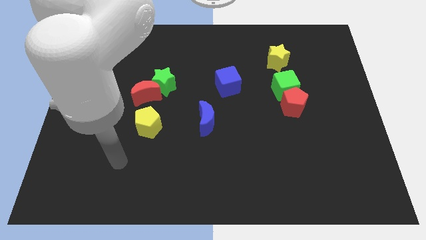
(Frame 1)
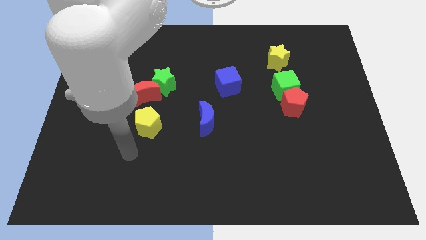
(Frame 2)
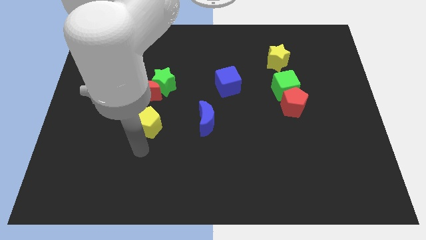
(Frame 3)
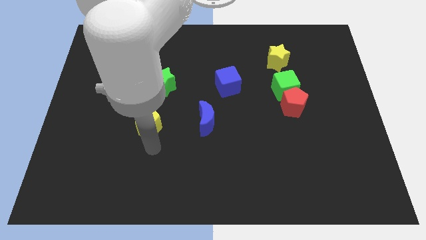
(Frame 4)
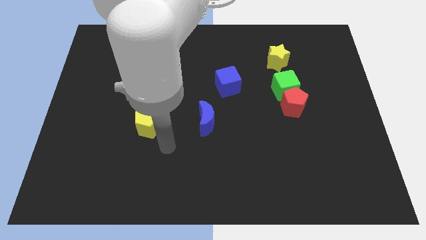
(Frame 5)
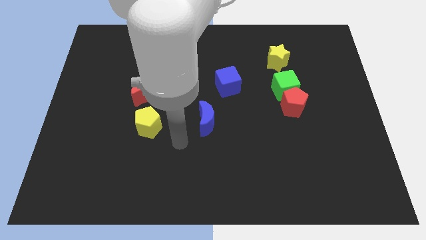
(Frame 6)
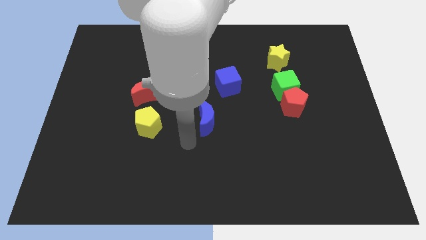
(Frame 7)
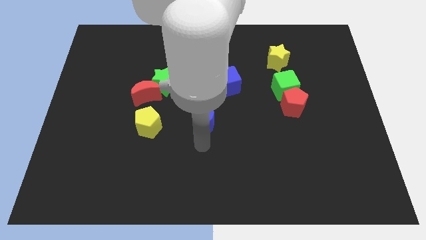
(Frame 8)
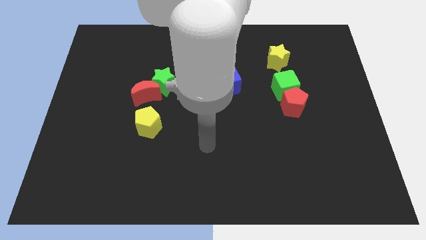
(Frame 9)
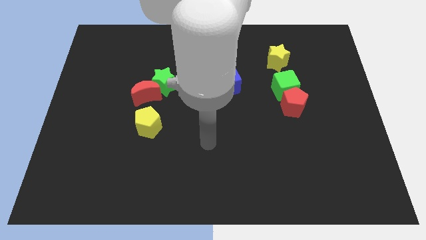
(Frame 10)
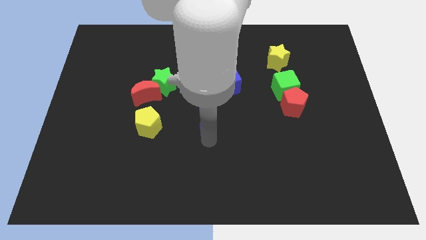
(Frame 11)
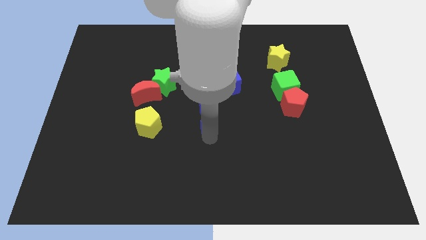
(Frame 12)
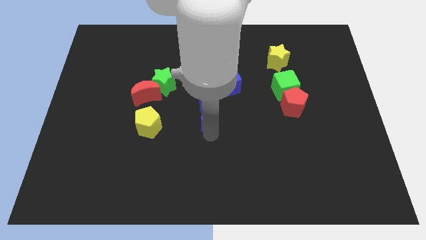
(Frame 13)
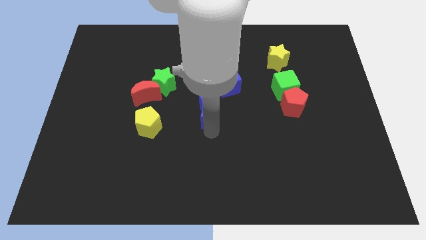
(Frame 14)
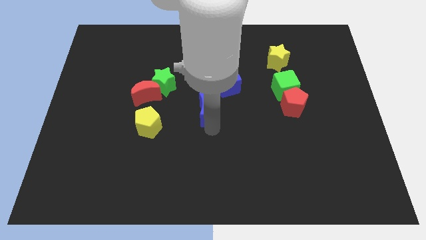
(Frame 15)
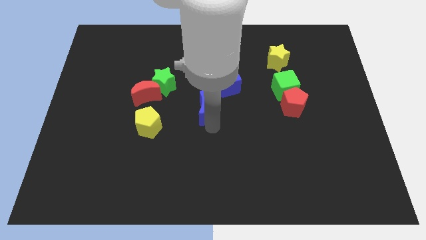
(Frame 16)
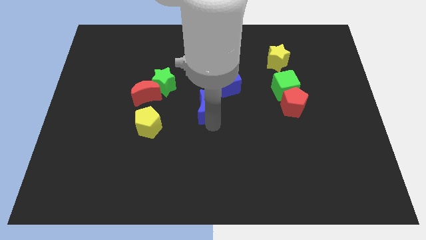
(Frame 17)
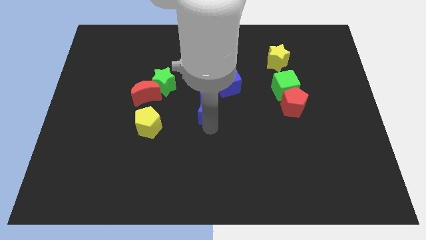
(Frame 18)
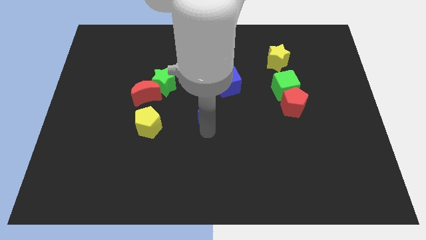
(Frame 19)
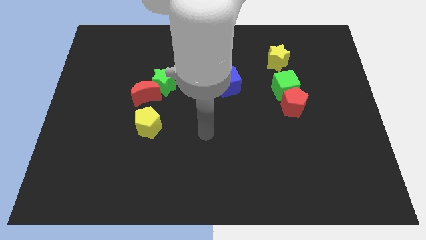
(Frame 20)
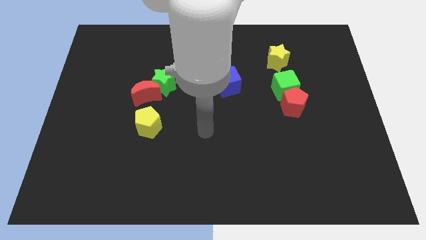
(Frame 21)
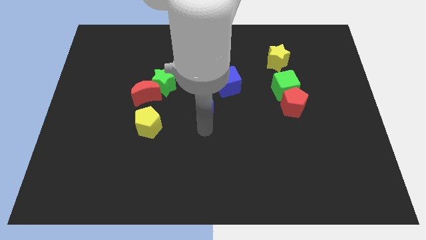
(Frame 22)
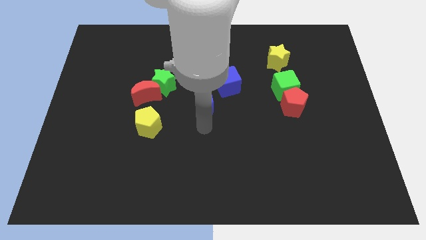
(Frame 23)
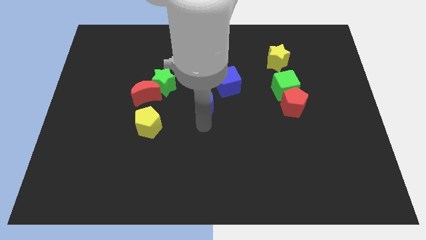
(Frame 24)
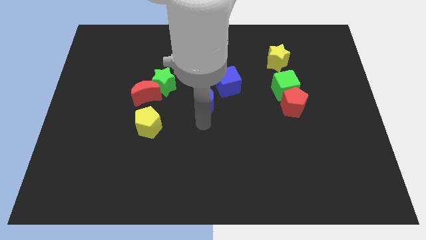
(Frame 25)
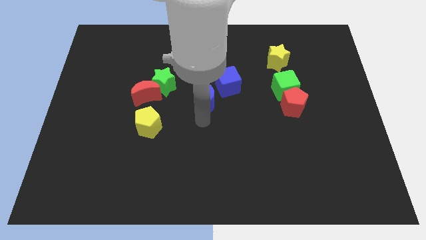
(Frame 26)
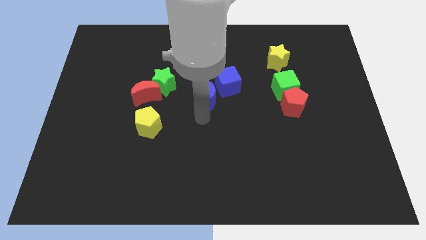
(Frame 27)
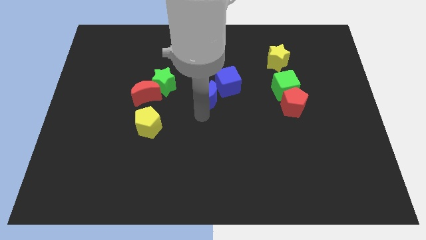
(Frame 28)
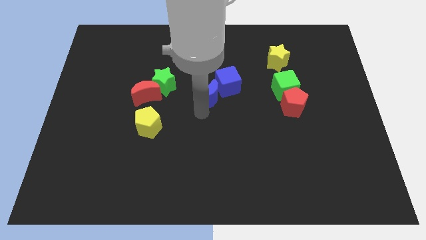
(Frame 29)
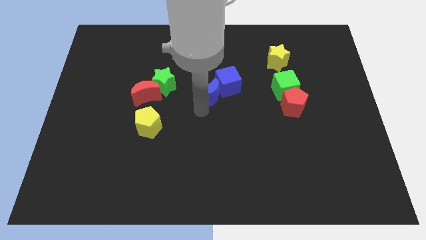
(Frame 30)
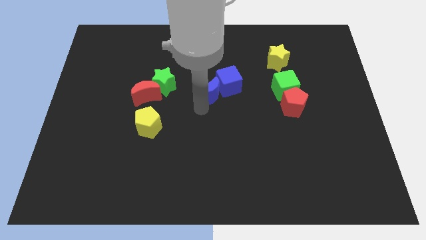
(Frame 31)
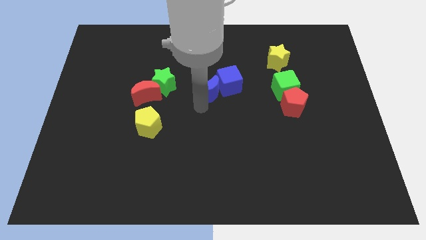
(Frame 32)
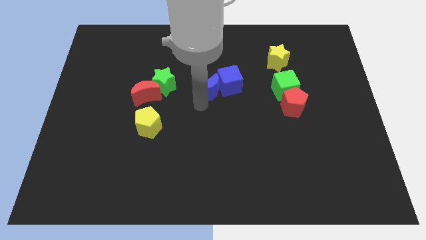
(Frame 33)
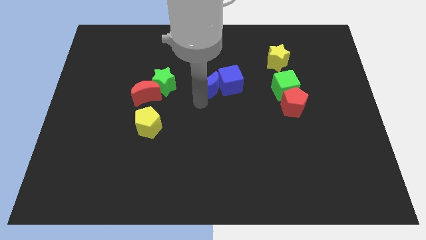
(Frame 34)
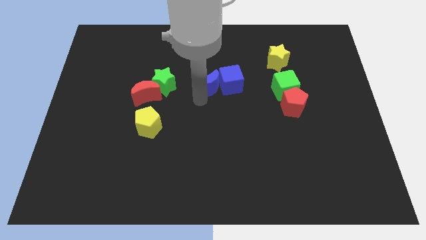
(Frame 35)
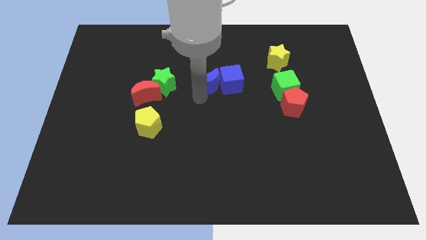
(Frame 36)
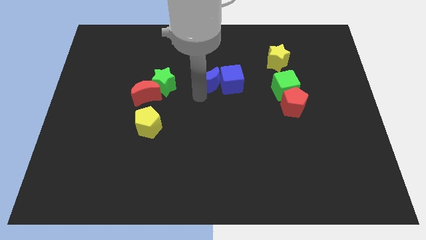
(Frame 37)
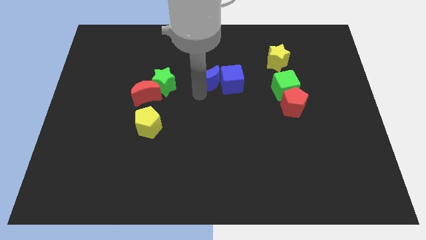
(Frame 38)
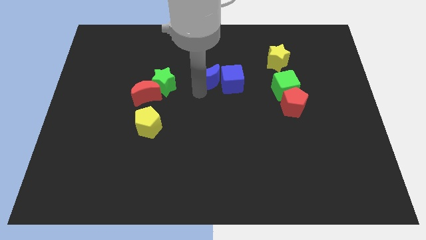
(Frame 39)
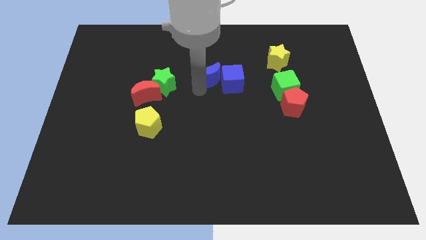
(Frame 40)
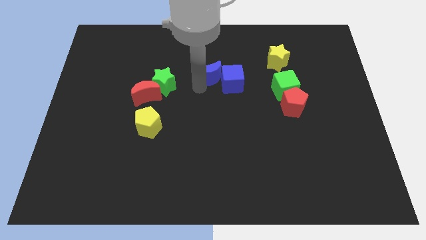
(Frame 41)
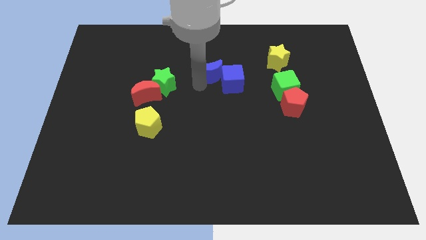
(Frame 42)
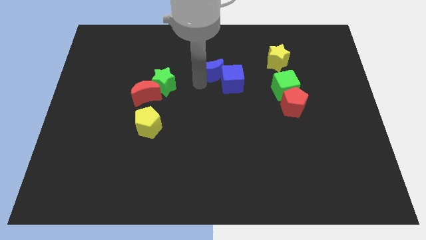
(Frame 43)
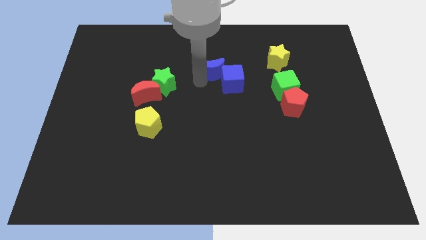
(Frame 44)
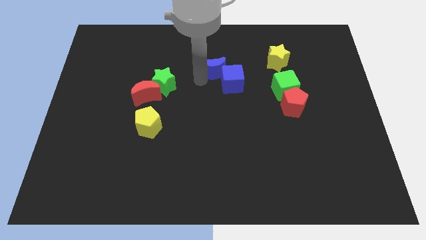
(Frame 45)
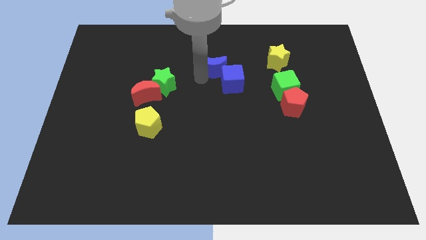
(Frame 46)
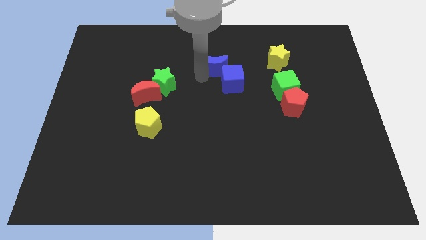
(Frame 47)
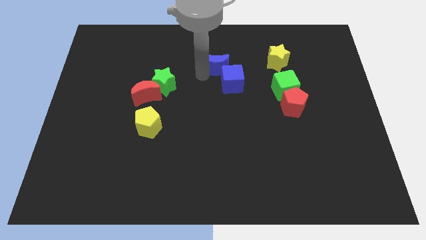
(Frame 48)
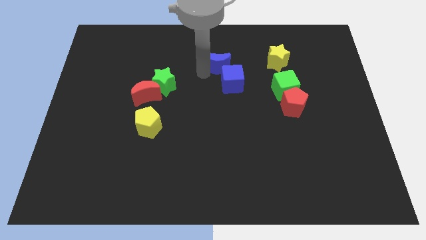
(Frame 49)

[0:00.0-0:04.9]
put the blue moon left of the yellow star

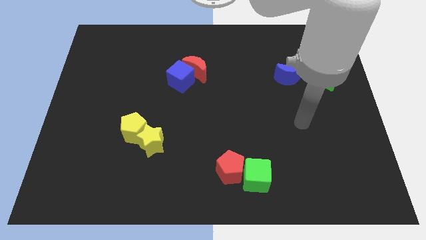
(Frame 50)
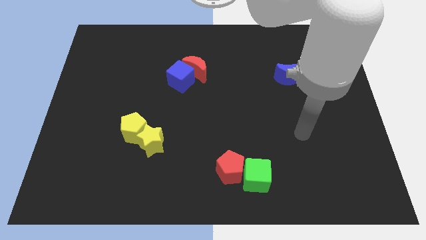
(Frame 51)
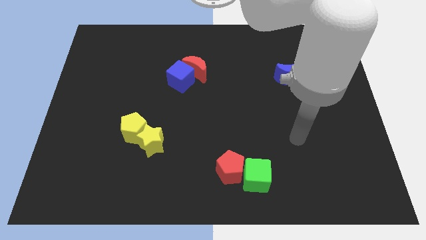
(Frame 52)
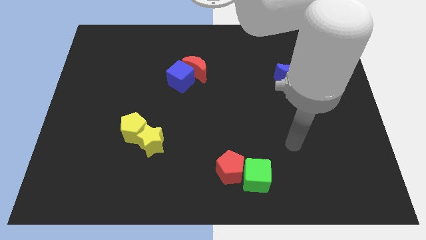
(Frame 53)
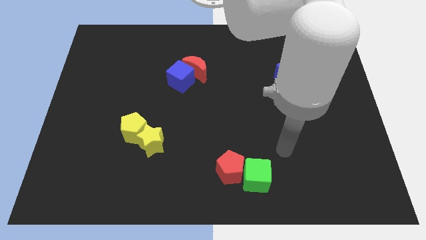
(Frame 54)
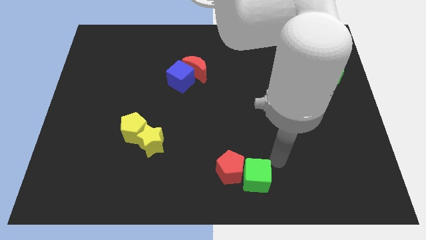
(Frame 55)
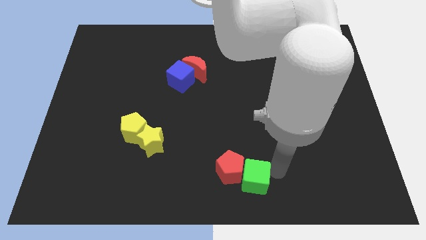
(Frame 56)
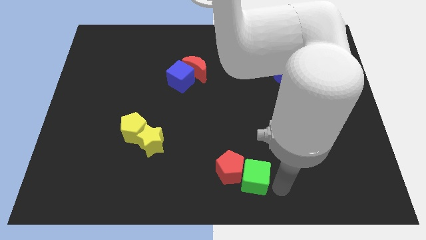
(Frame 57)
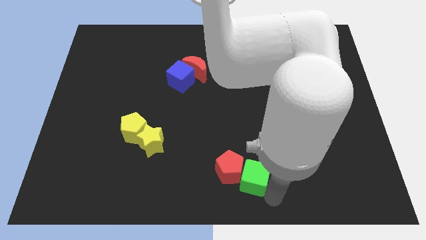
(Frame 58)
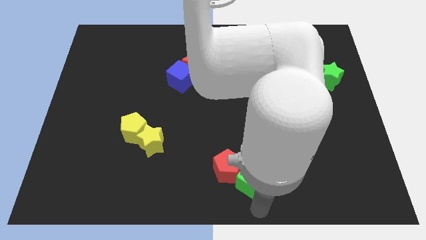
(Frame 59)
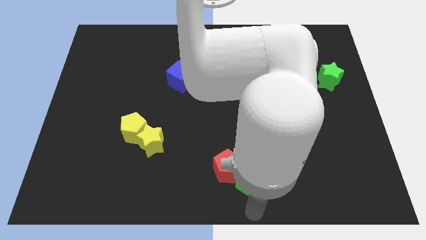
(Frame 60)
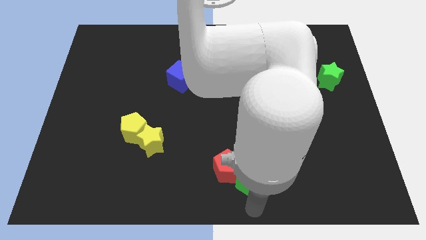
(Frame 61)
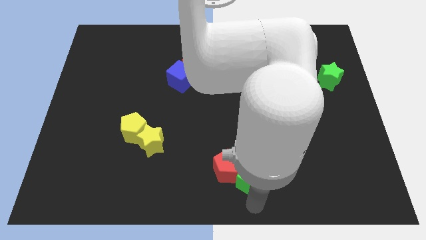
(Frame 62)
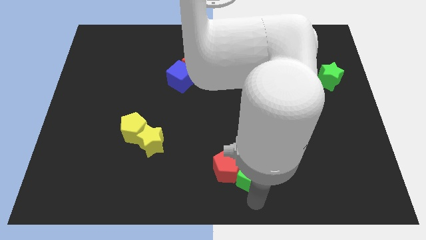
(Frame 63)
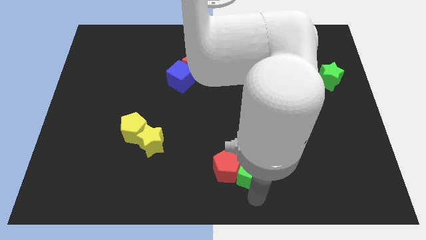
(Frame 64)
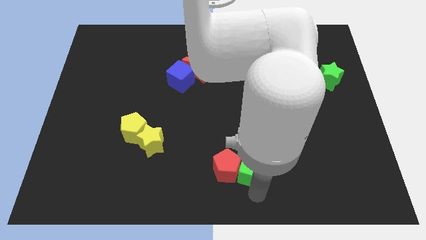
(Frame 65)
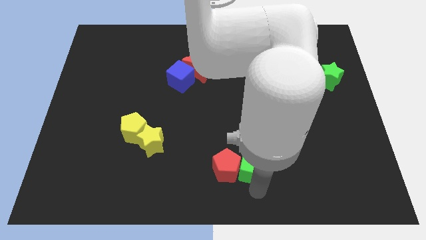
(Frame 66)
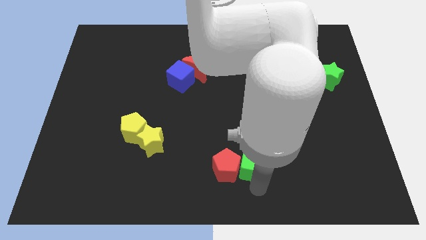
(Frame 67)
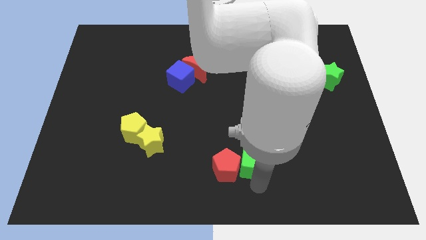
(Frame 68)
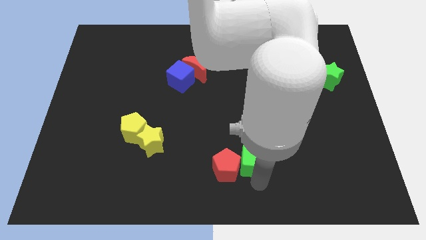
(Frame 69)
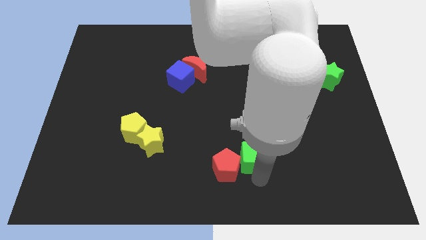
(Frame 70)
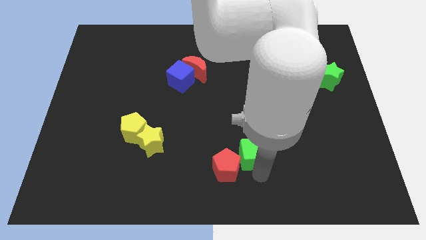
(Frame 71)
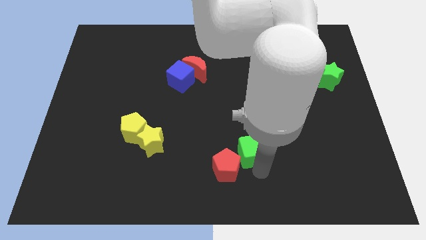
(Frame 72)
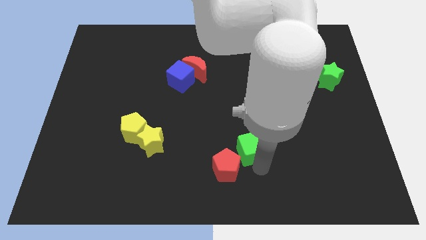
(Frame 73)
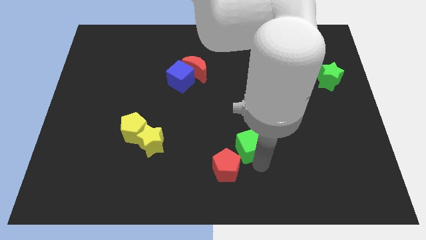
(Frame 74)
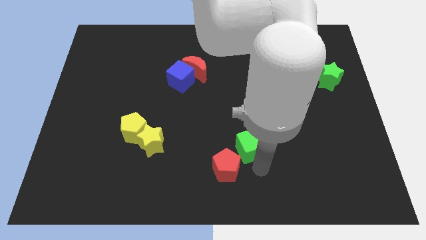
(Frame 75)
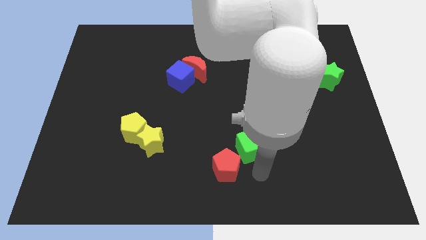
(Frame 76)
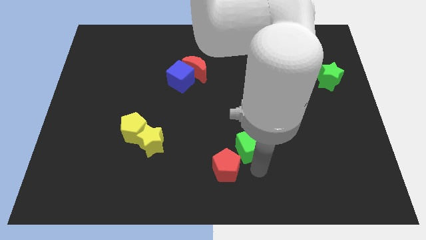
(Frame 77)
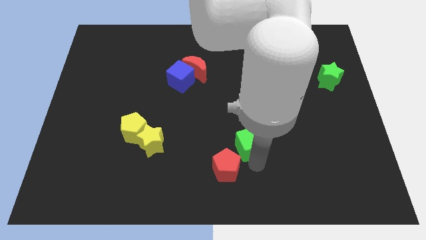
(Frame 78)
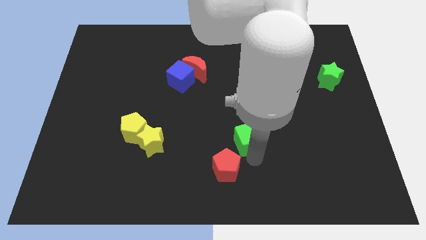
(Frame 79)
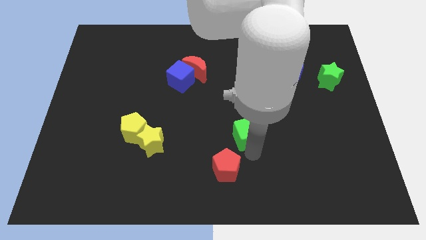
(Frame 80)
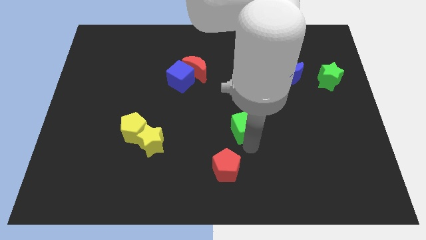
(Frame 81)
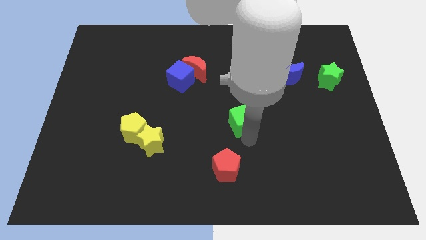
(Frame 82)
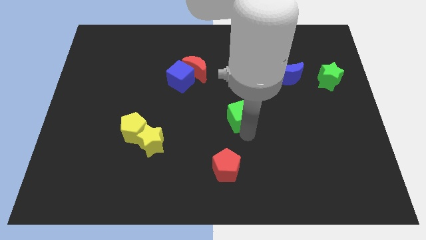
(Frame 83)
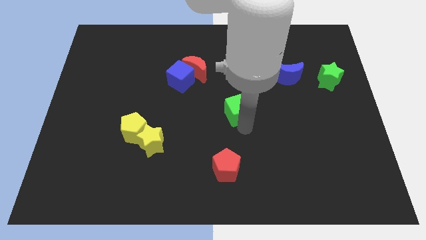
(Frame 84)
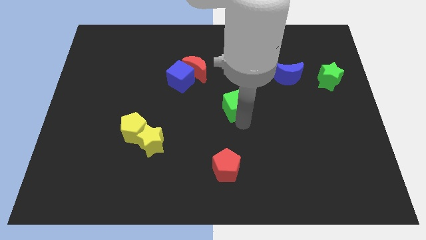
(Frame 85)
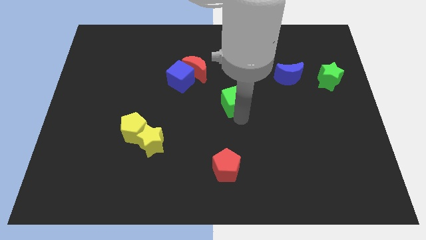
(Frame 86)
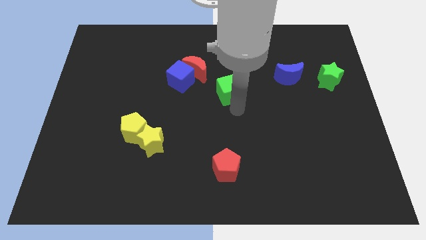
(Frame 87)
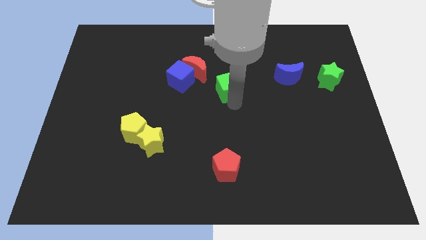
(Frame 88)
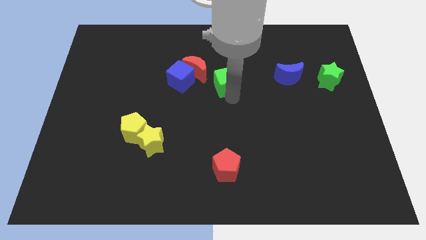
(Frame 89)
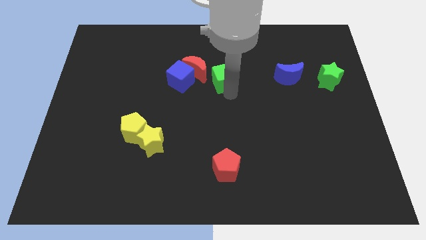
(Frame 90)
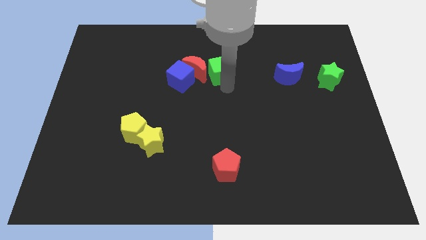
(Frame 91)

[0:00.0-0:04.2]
put the green cube to the top right of the red moon
